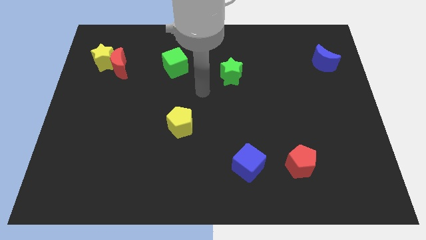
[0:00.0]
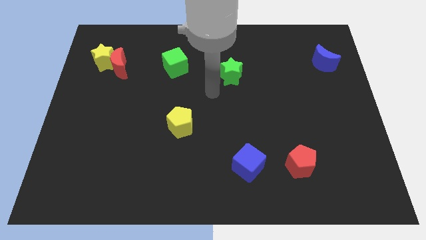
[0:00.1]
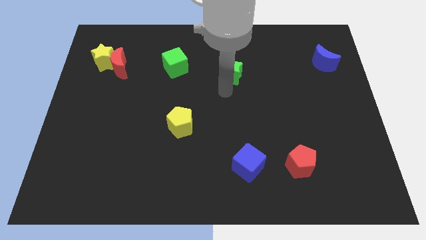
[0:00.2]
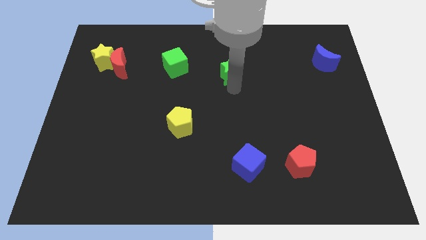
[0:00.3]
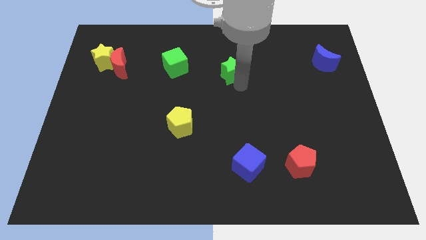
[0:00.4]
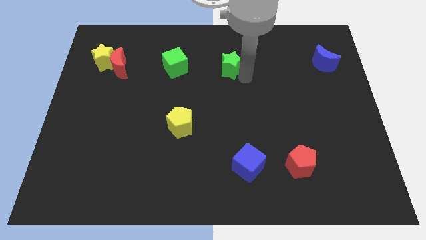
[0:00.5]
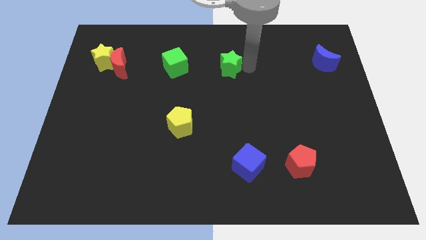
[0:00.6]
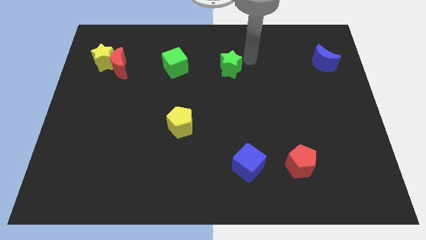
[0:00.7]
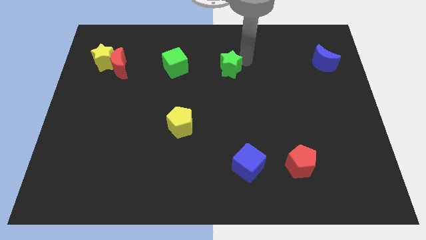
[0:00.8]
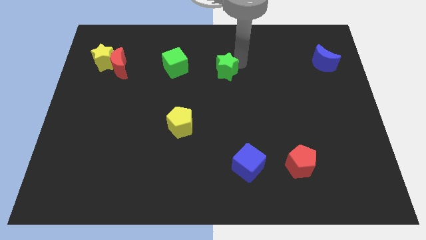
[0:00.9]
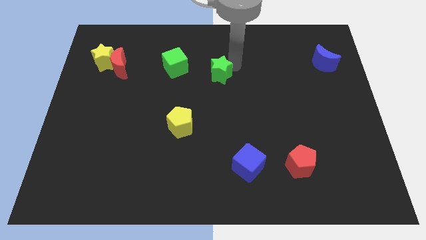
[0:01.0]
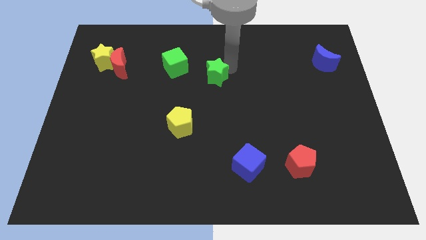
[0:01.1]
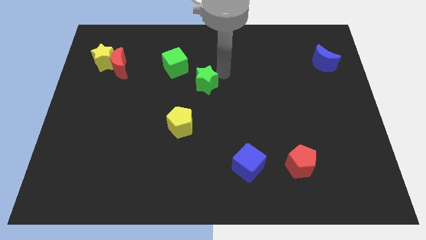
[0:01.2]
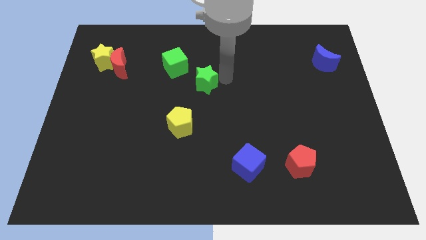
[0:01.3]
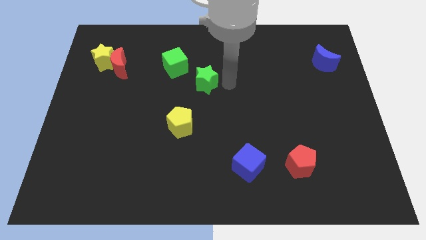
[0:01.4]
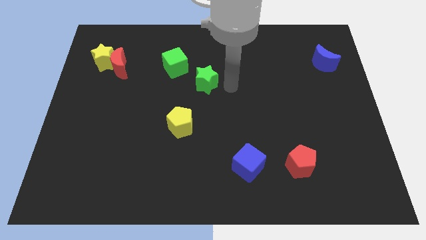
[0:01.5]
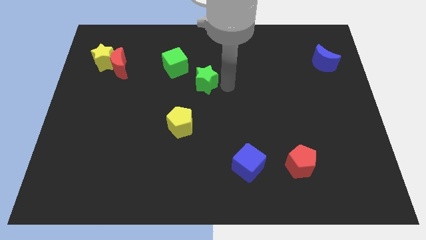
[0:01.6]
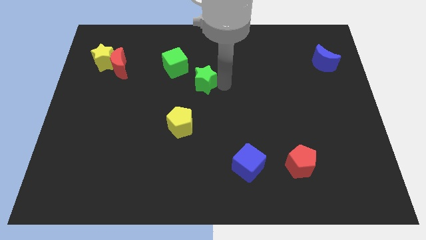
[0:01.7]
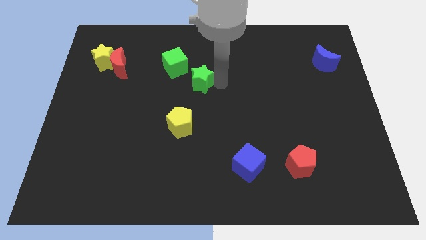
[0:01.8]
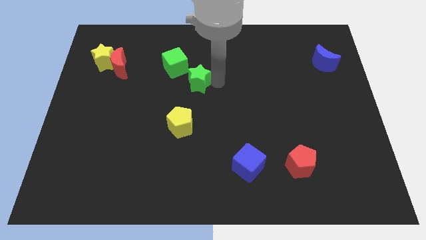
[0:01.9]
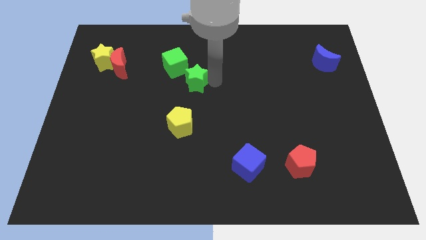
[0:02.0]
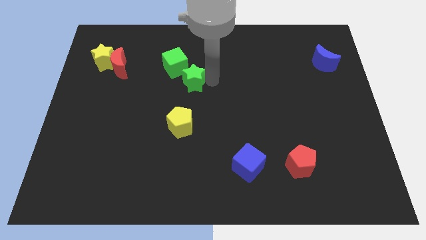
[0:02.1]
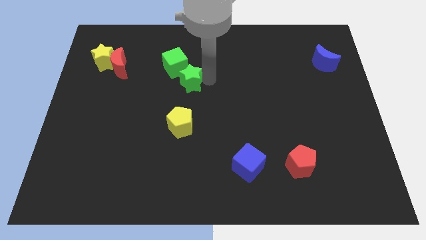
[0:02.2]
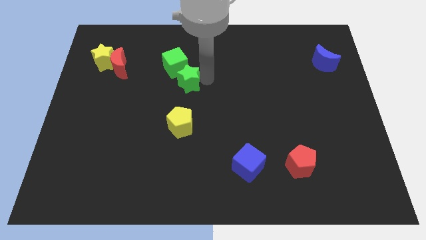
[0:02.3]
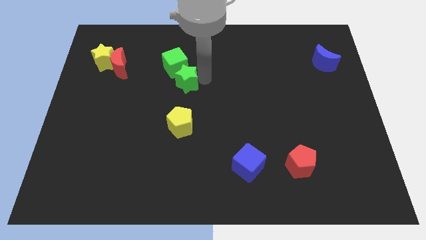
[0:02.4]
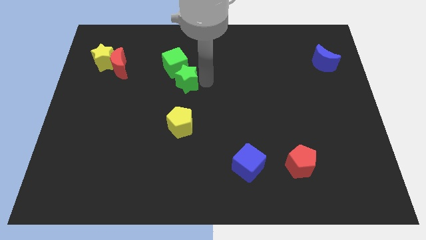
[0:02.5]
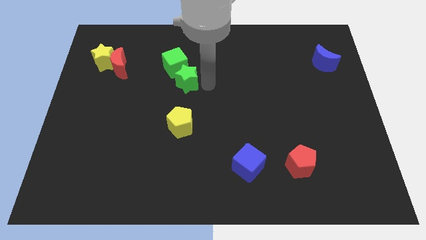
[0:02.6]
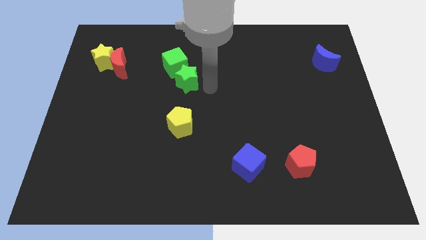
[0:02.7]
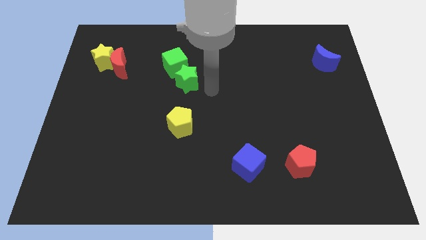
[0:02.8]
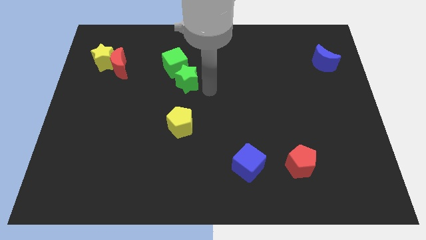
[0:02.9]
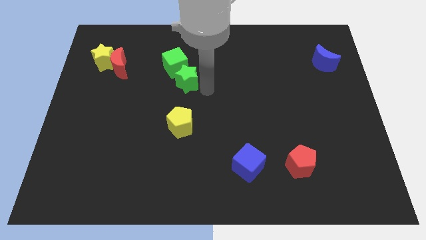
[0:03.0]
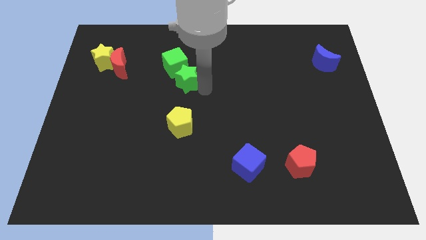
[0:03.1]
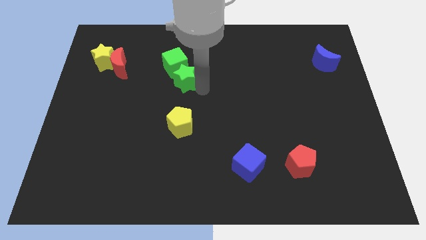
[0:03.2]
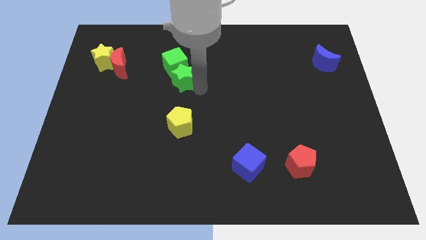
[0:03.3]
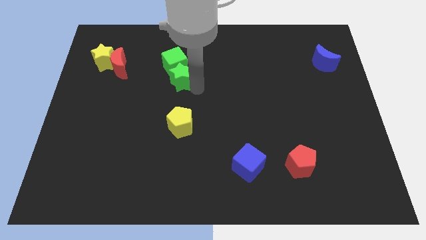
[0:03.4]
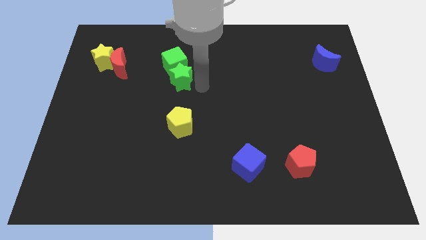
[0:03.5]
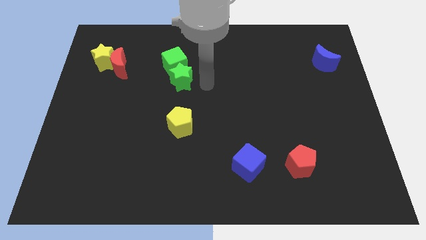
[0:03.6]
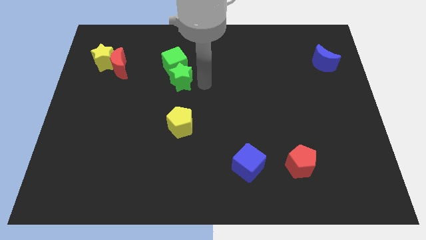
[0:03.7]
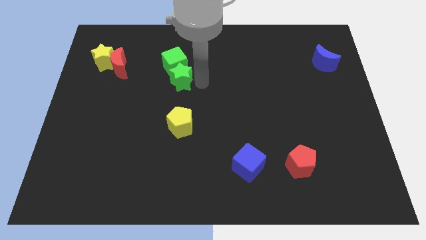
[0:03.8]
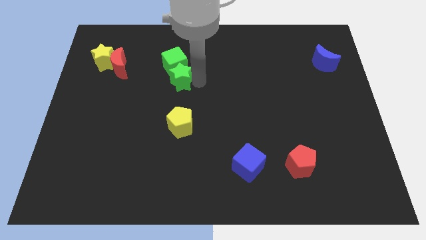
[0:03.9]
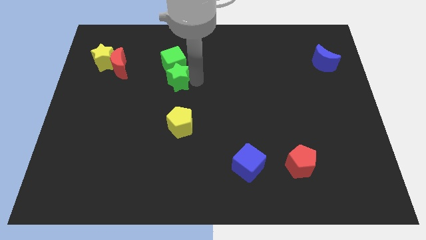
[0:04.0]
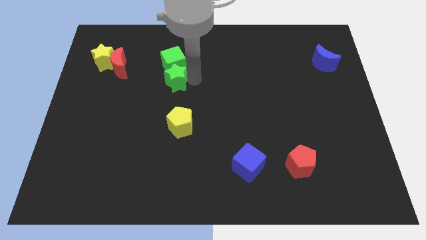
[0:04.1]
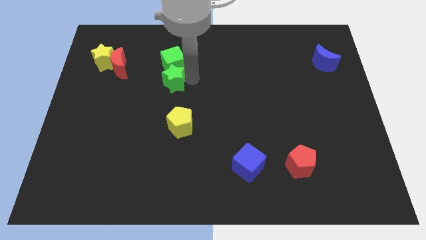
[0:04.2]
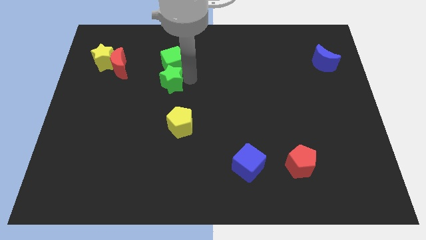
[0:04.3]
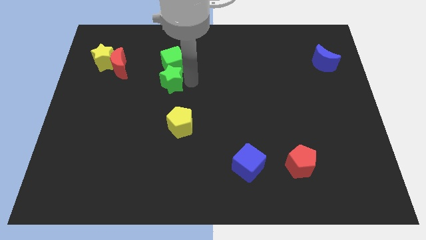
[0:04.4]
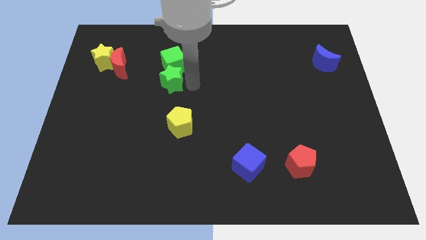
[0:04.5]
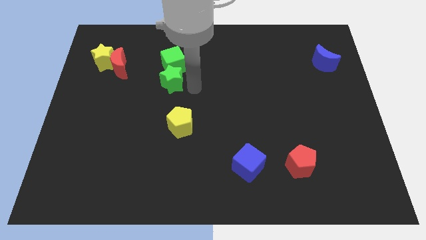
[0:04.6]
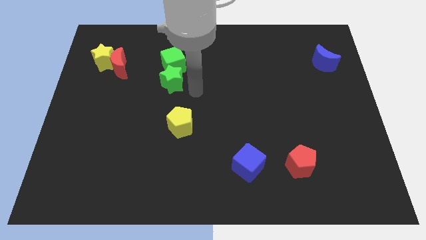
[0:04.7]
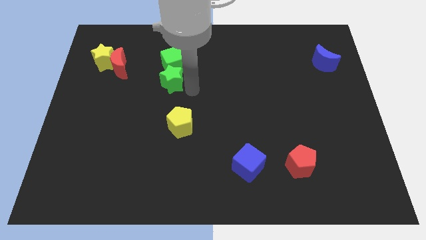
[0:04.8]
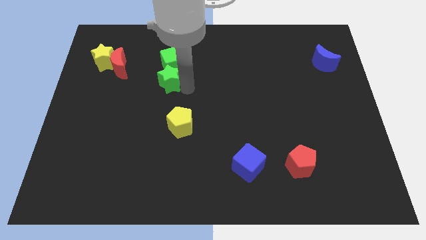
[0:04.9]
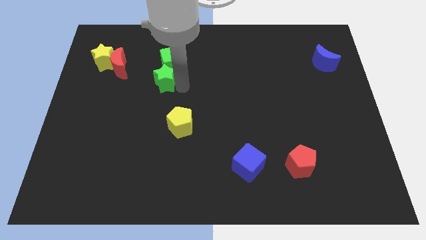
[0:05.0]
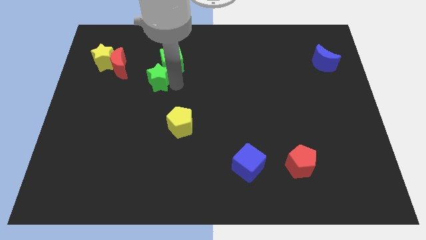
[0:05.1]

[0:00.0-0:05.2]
push the green star to the bottom right of the red moon

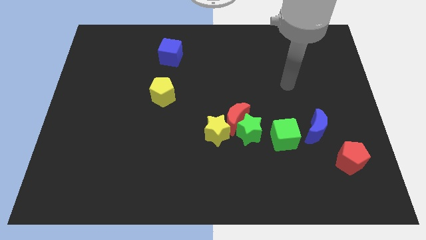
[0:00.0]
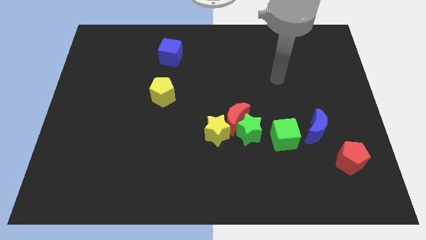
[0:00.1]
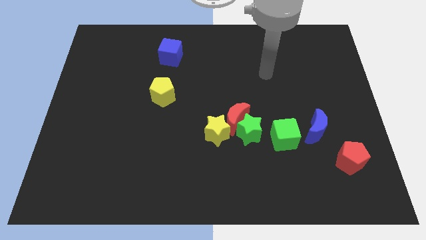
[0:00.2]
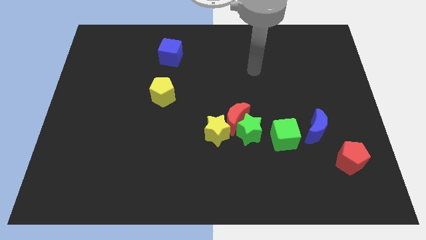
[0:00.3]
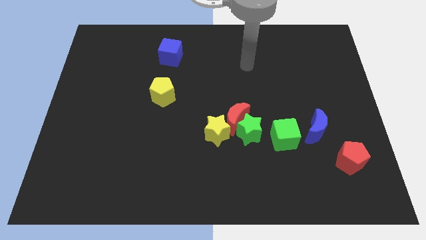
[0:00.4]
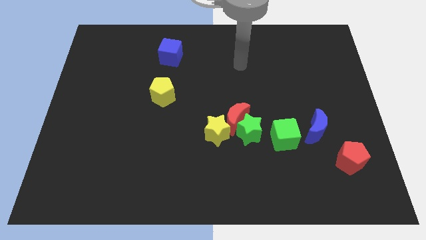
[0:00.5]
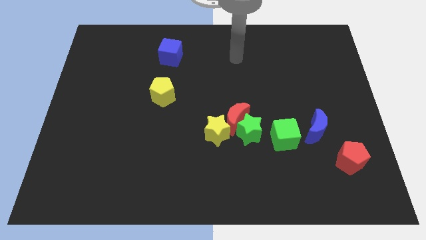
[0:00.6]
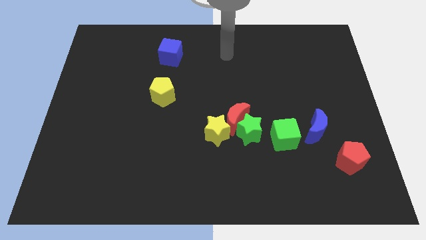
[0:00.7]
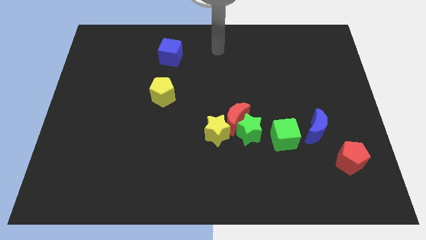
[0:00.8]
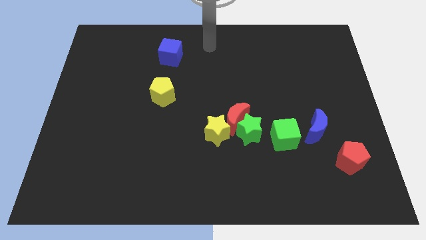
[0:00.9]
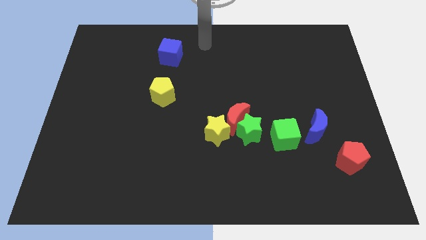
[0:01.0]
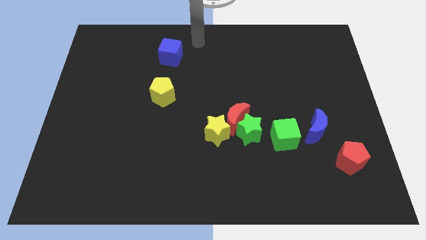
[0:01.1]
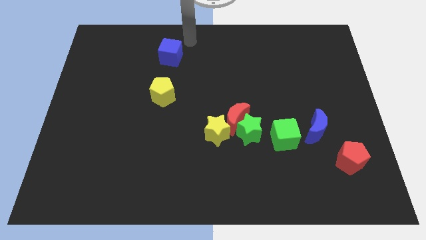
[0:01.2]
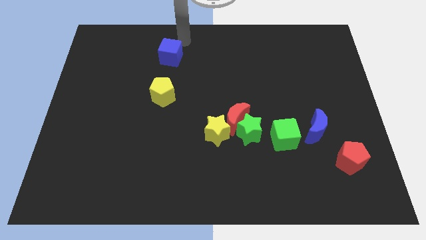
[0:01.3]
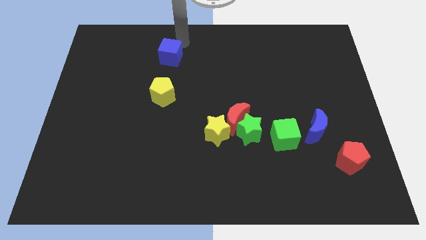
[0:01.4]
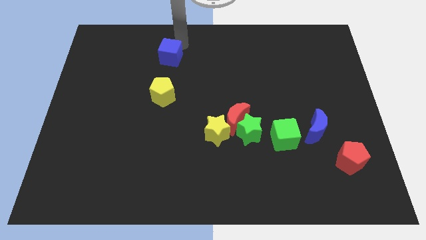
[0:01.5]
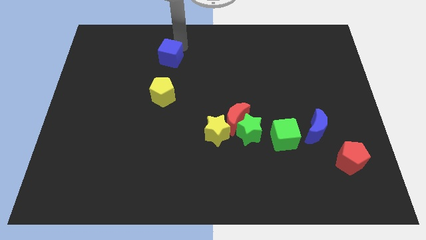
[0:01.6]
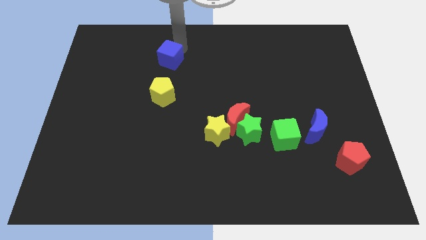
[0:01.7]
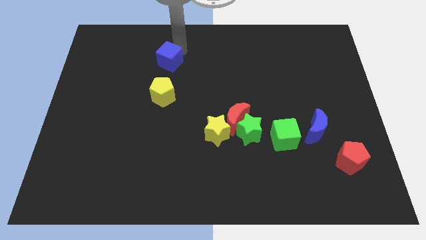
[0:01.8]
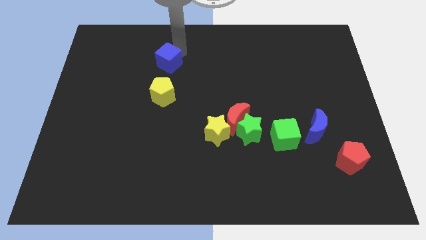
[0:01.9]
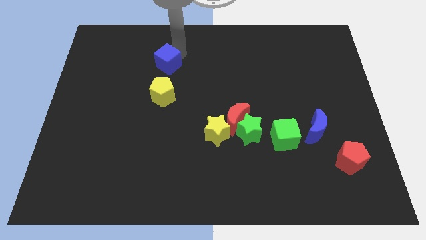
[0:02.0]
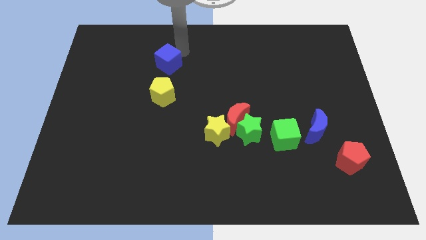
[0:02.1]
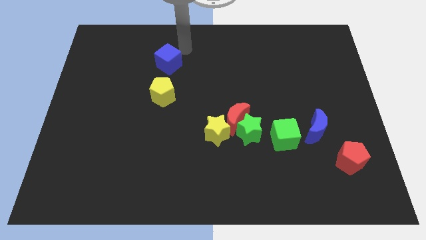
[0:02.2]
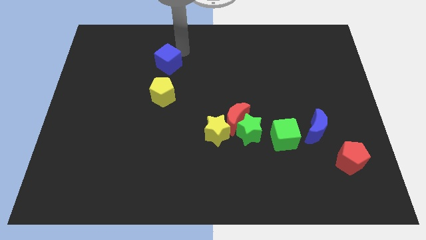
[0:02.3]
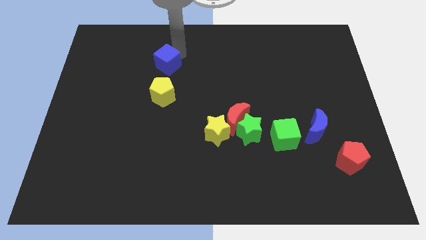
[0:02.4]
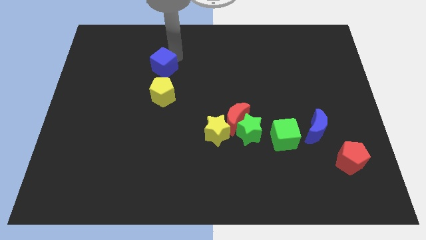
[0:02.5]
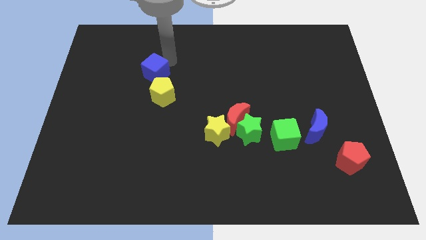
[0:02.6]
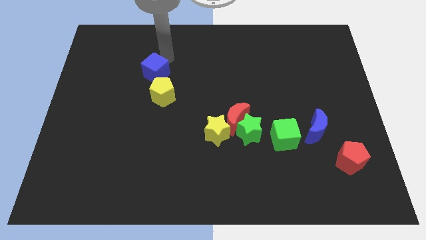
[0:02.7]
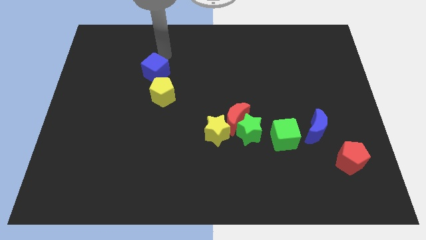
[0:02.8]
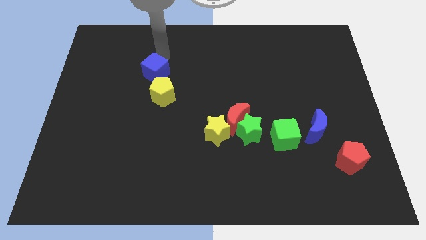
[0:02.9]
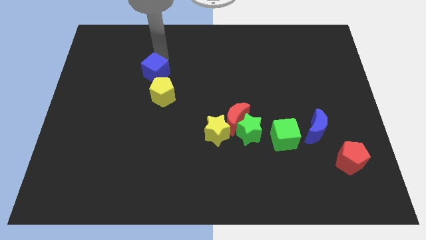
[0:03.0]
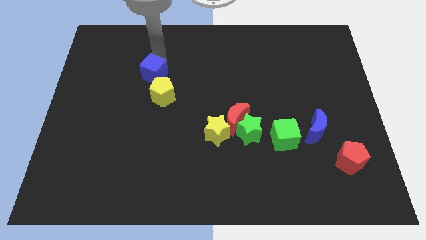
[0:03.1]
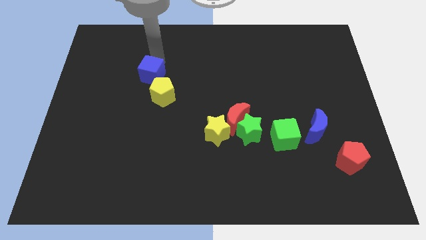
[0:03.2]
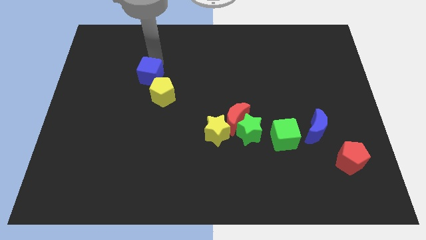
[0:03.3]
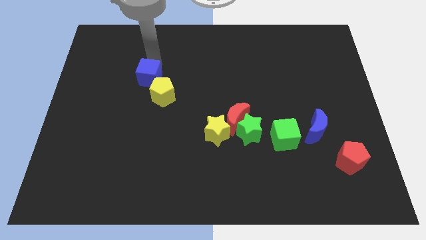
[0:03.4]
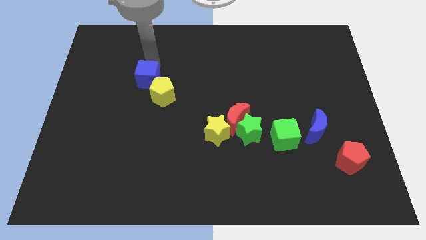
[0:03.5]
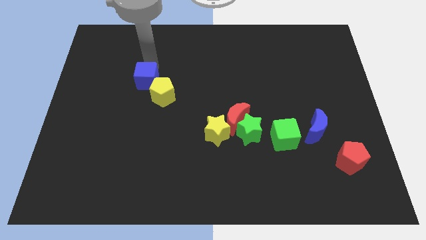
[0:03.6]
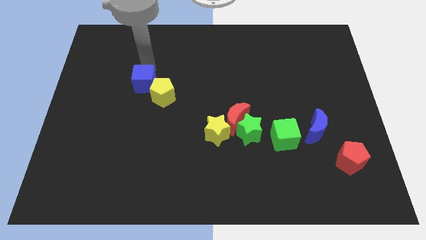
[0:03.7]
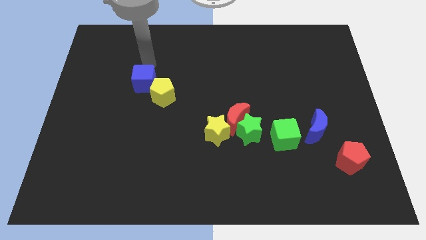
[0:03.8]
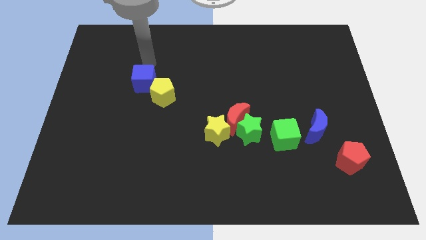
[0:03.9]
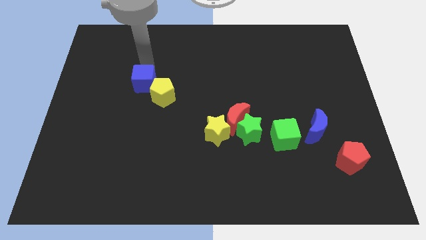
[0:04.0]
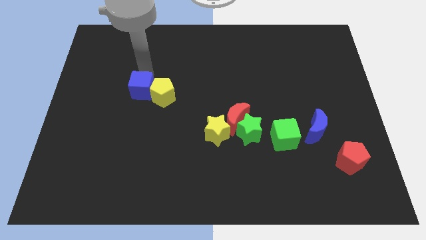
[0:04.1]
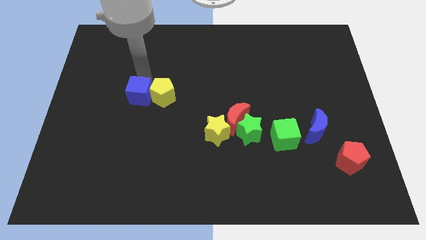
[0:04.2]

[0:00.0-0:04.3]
move the blue cube diagonally down and to the left of the yellow pentagon
